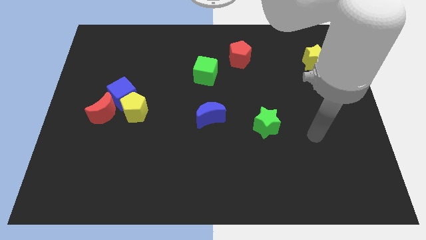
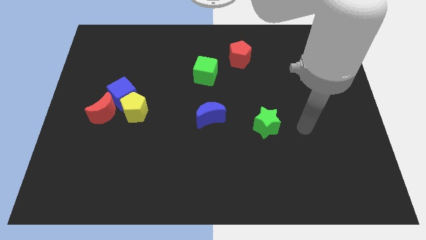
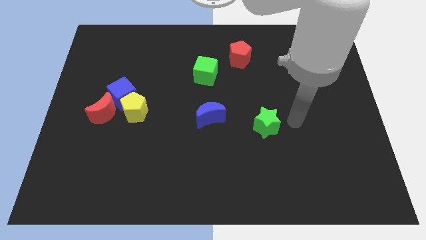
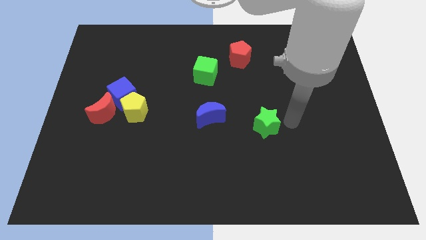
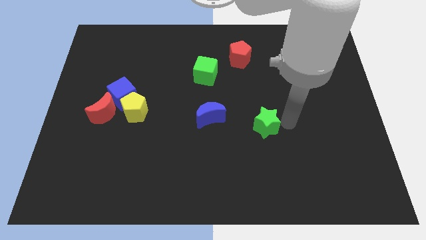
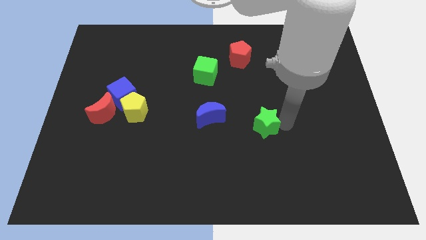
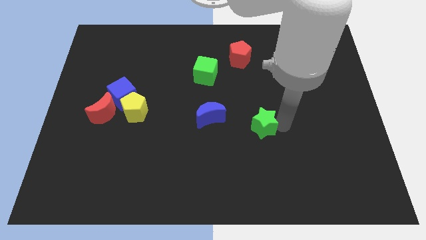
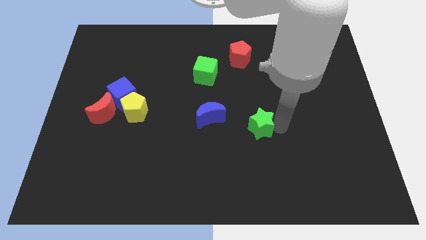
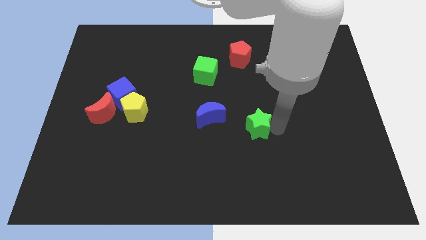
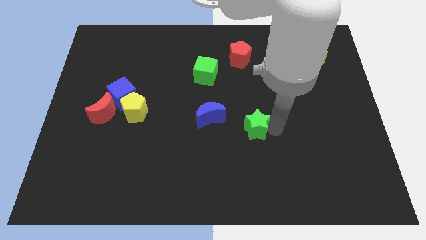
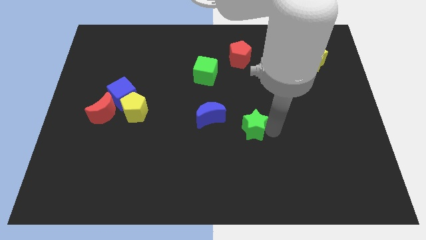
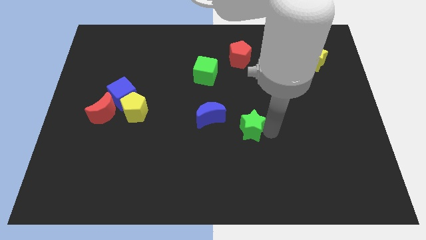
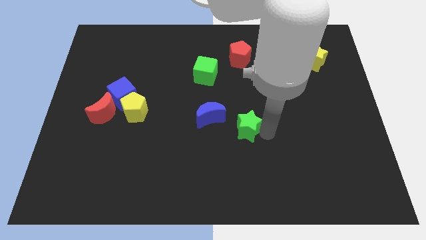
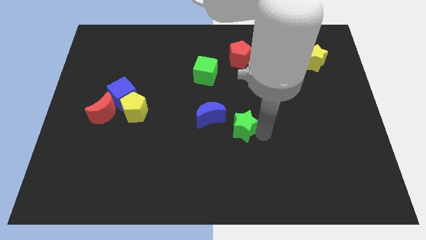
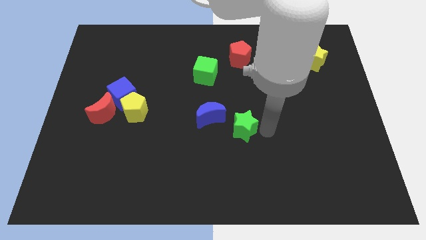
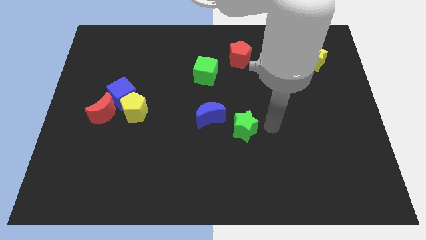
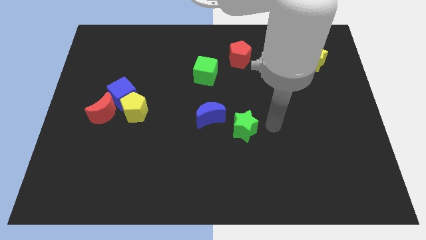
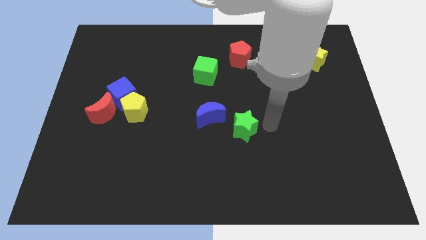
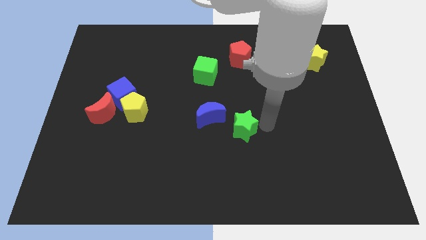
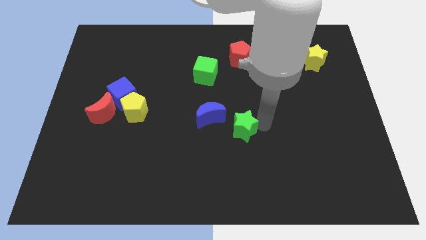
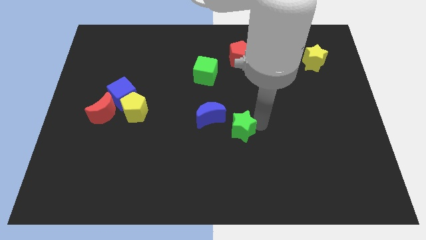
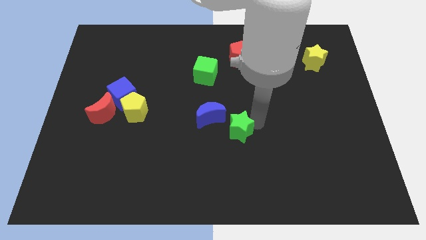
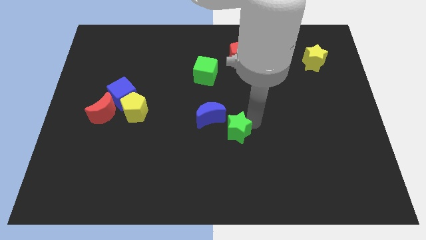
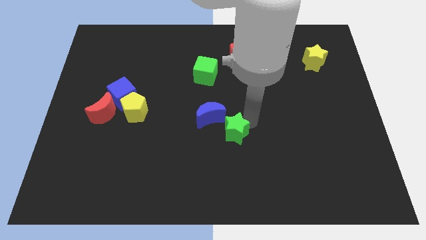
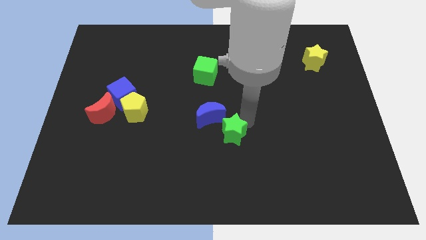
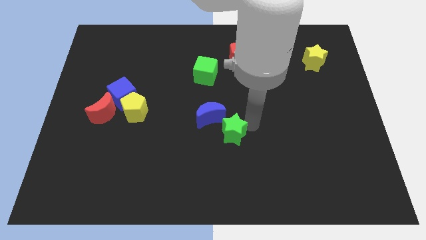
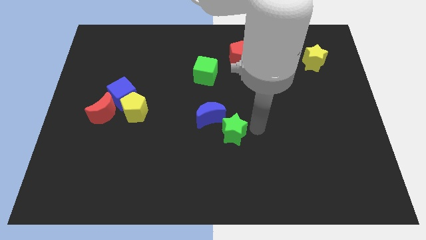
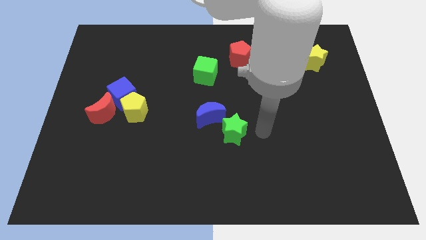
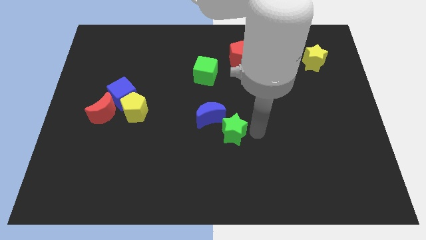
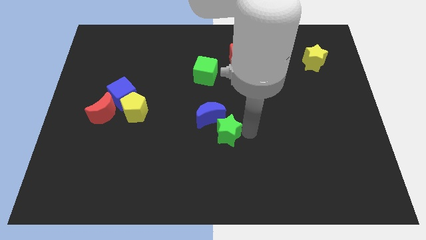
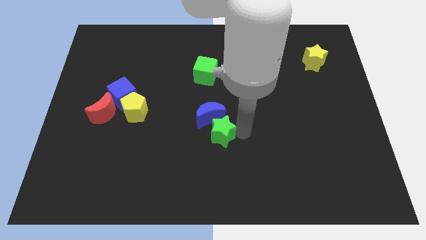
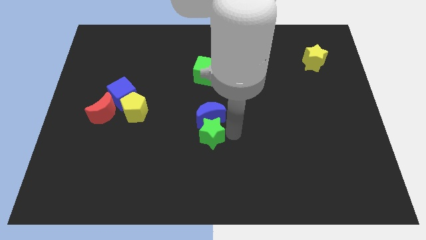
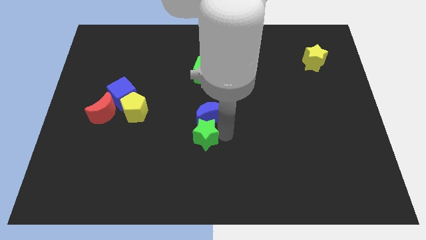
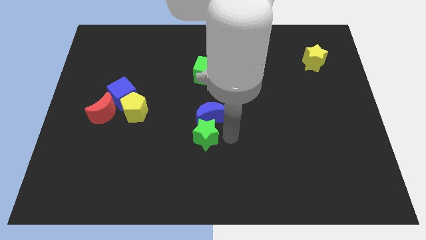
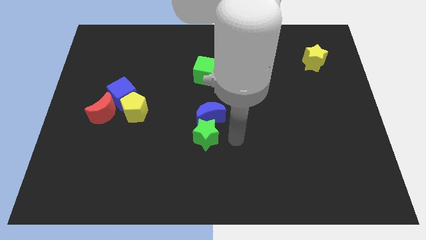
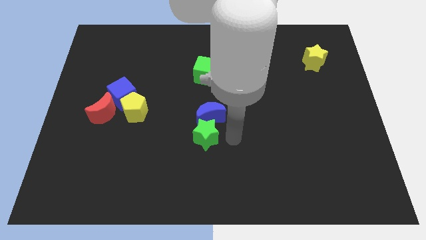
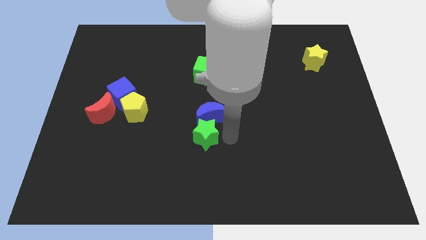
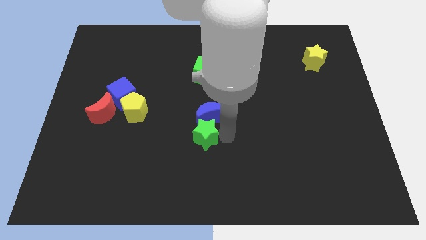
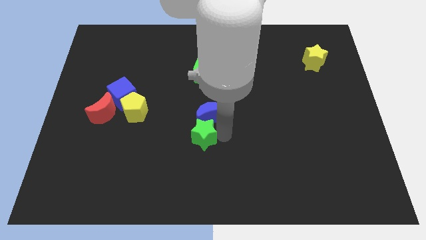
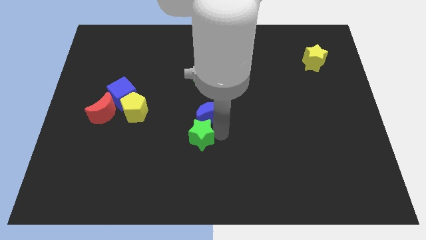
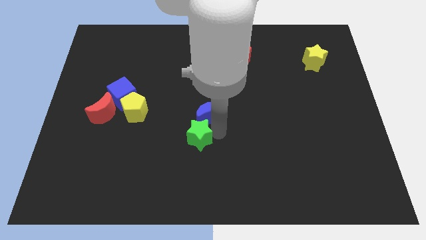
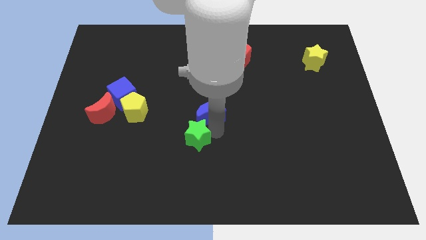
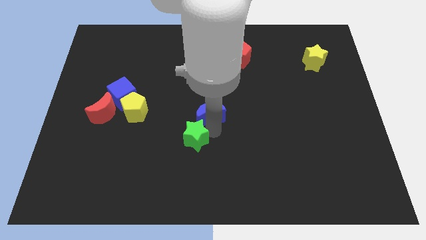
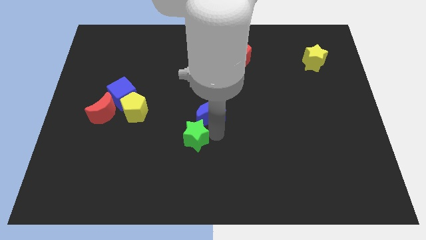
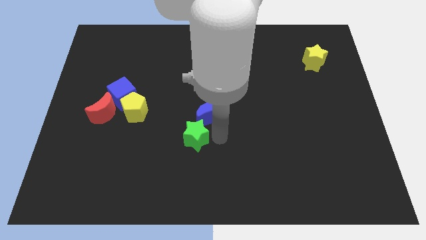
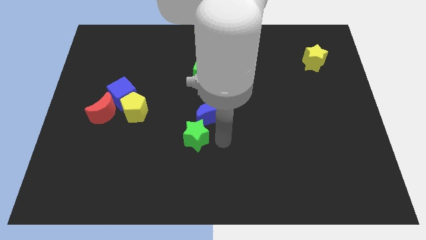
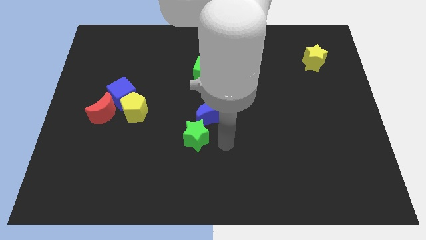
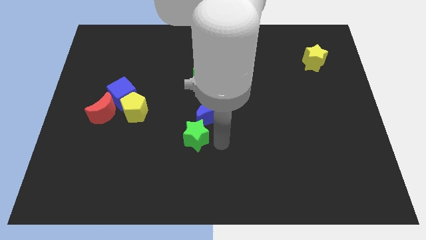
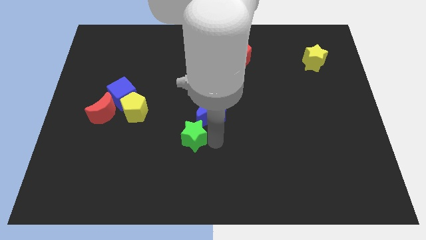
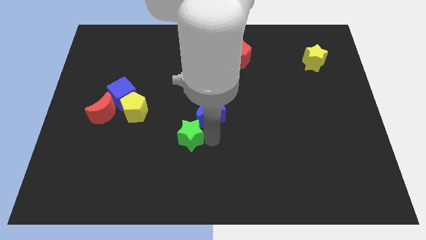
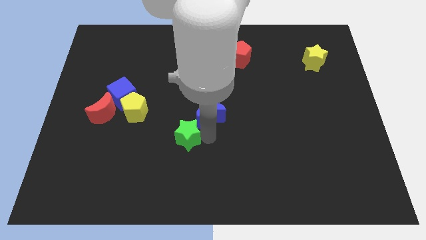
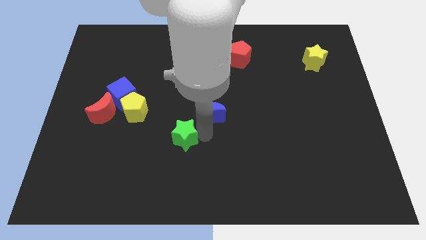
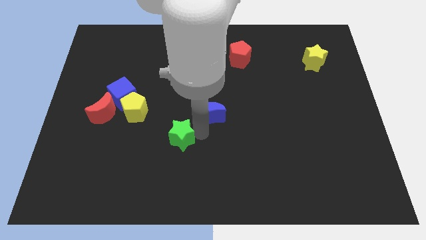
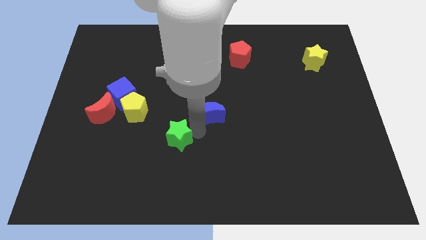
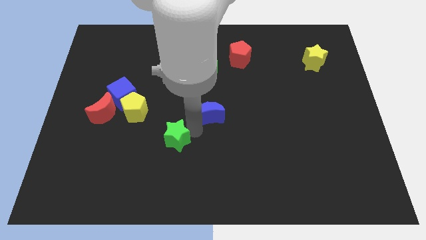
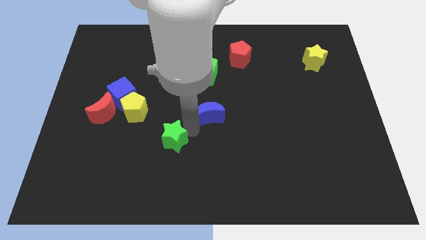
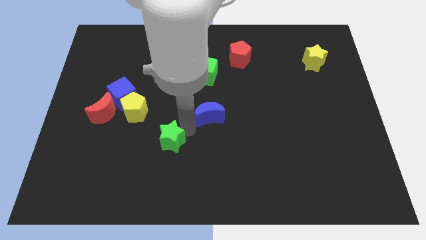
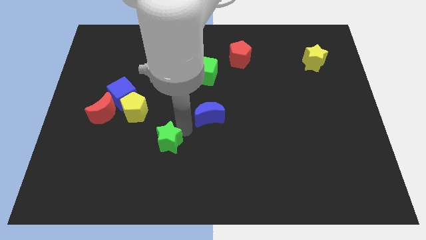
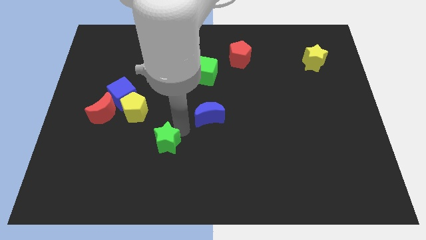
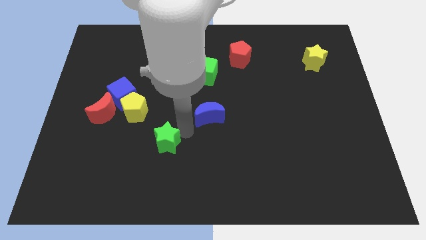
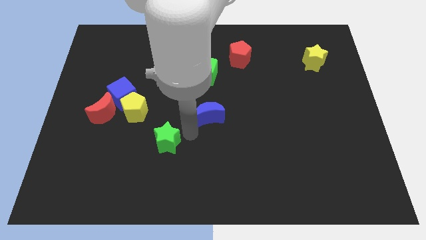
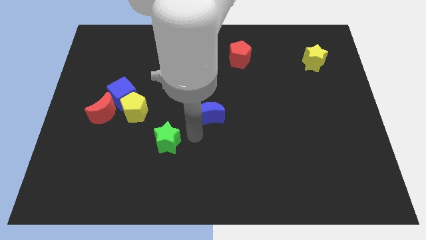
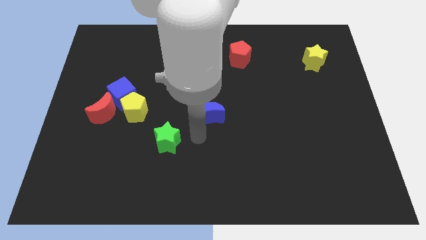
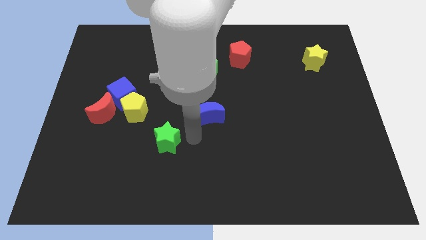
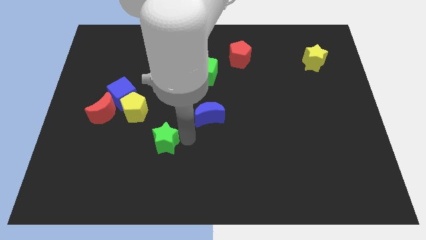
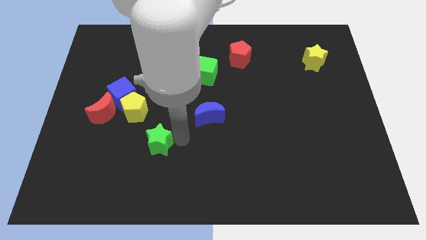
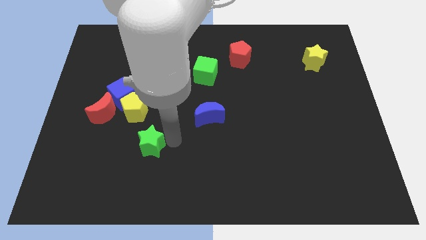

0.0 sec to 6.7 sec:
move the green star to the bottom side of the yellow pentagon
